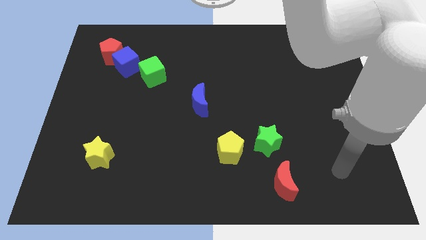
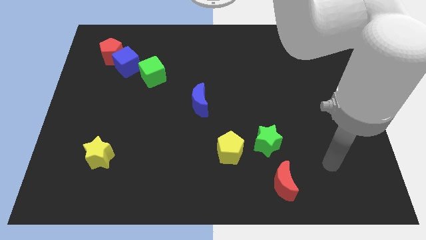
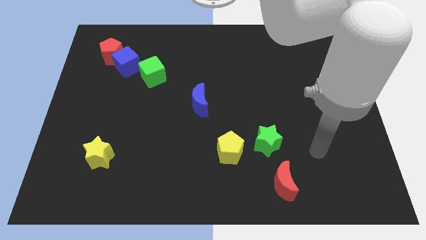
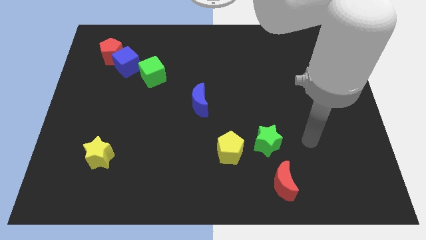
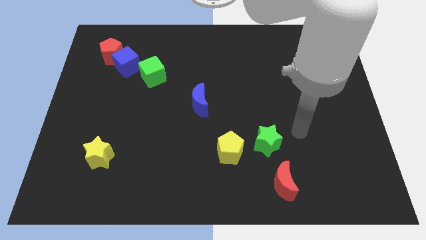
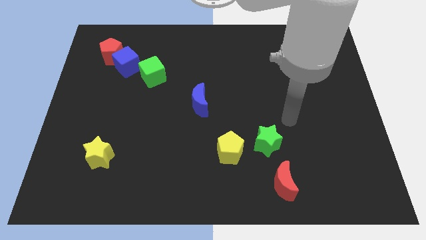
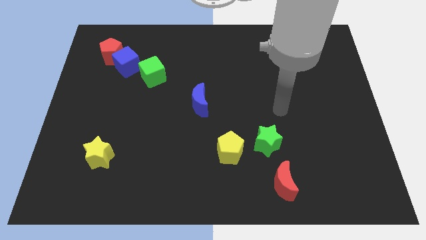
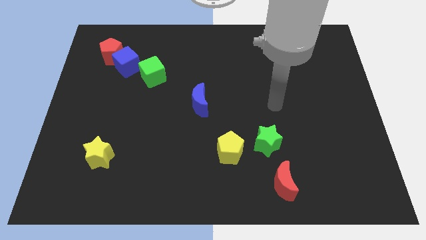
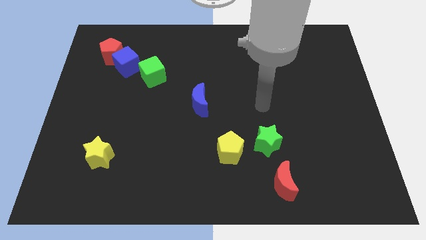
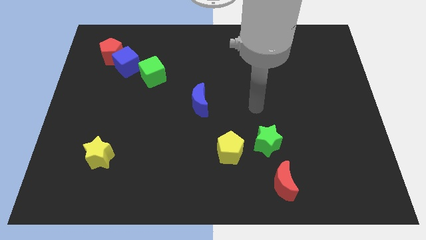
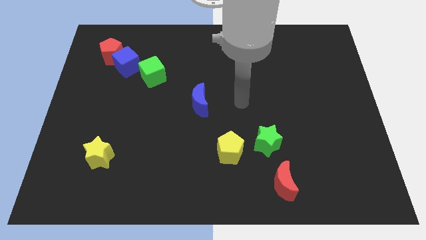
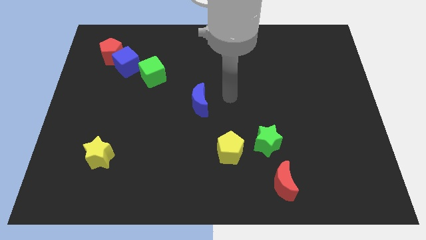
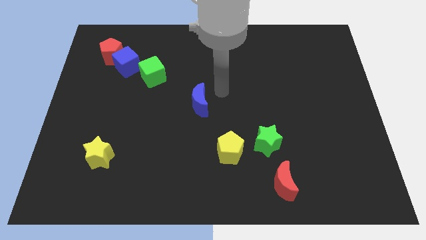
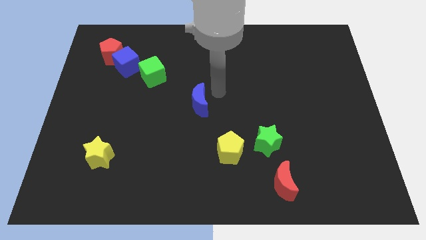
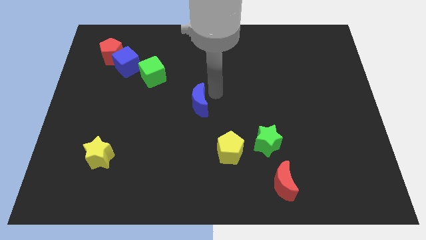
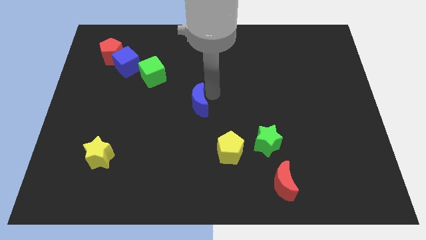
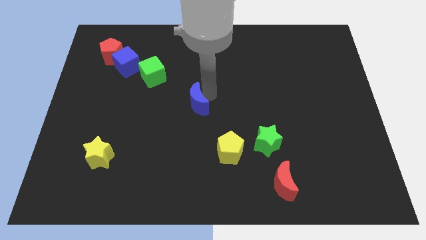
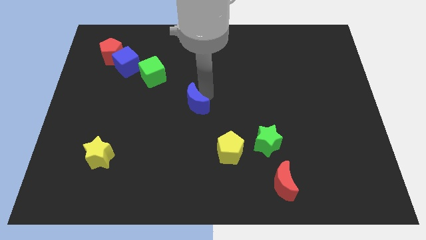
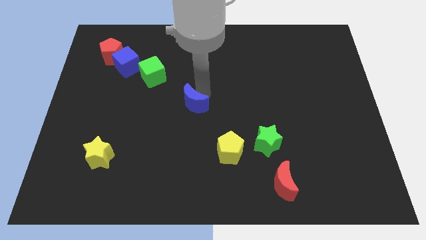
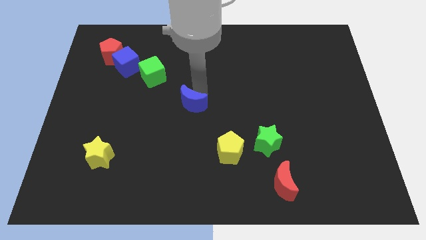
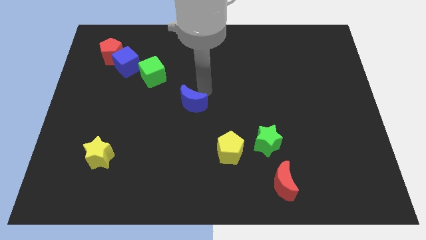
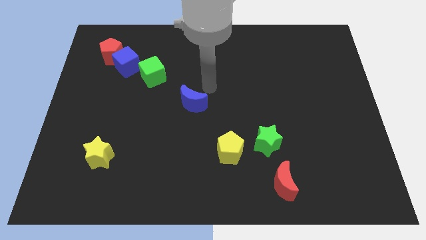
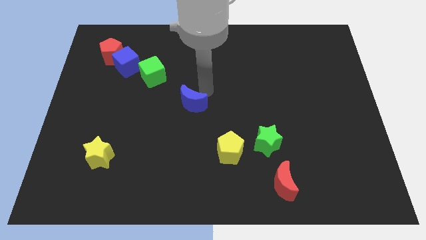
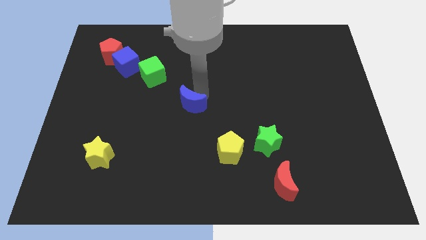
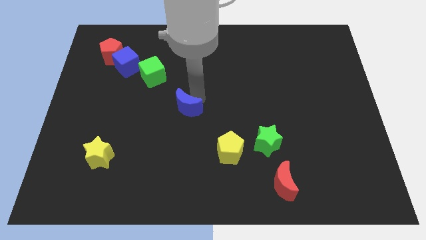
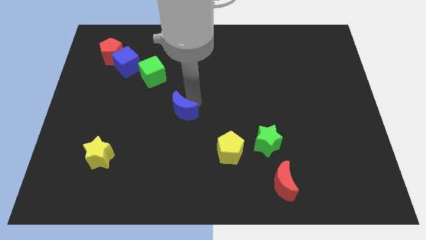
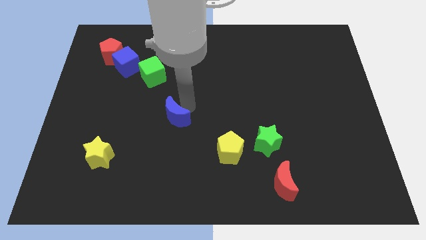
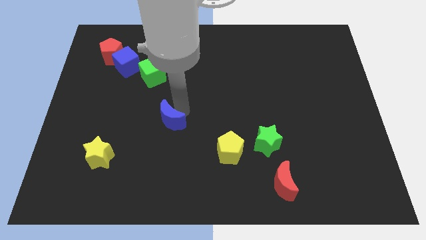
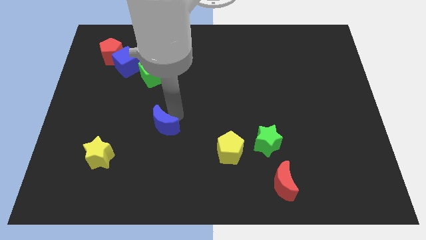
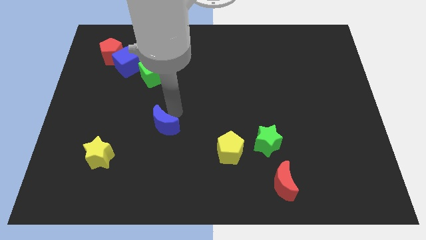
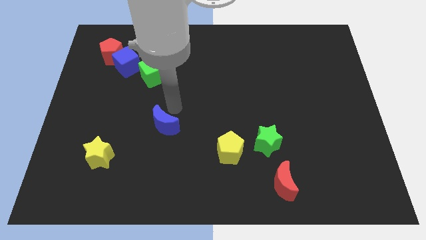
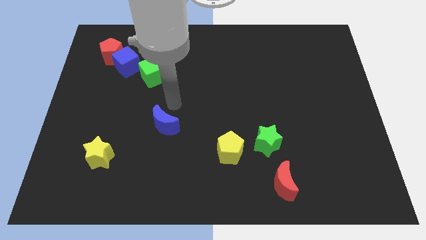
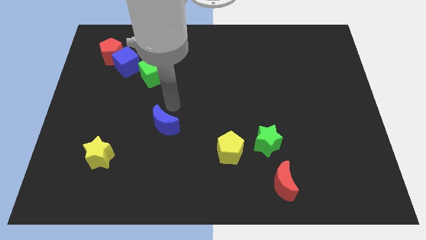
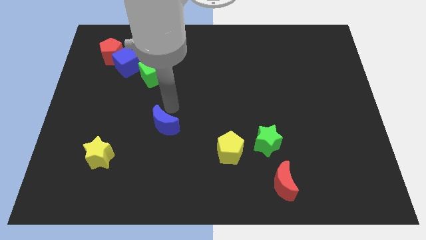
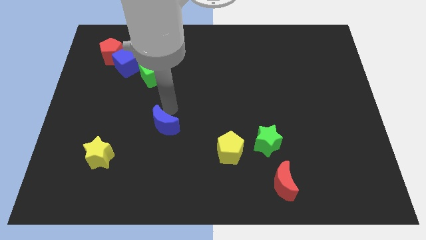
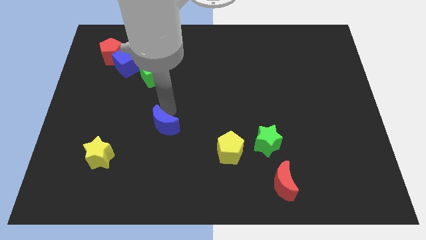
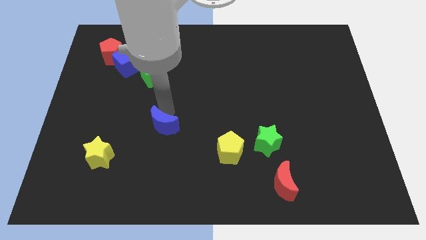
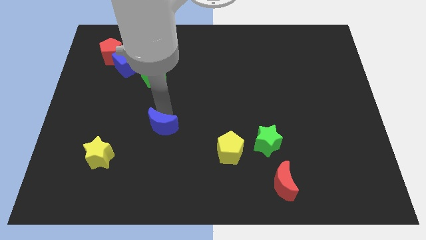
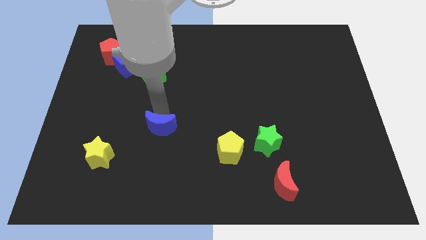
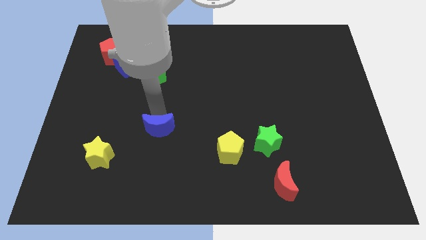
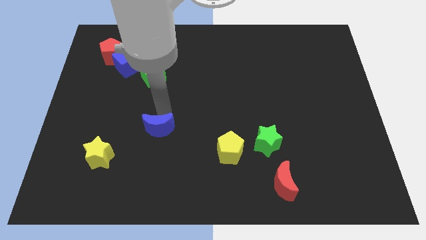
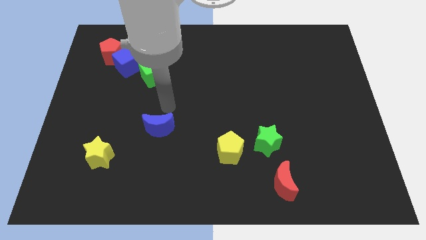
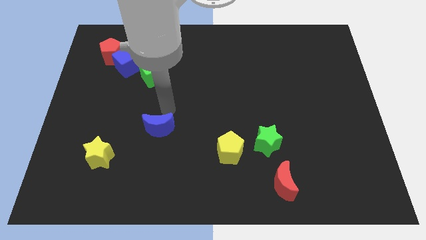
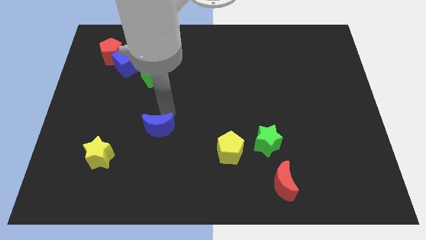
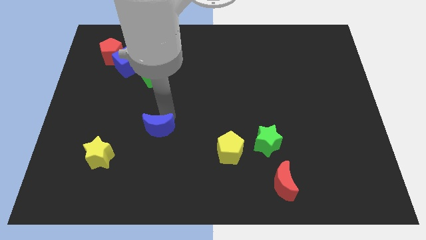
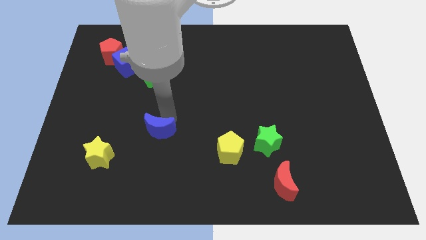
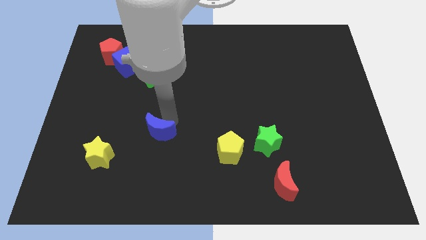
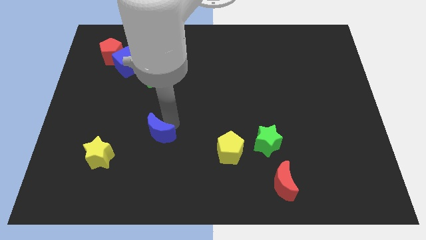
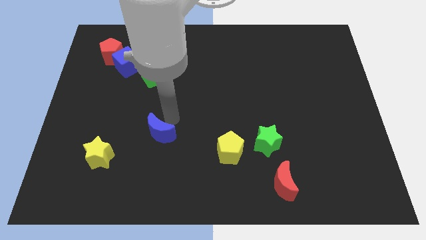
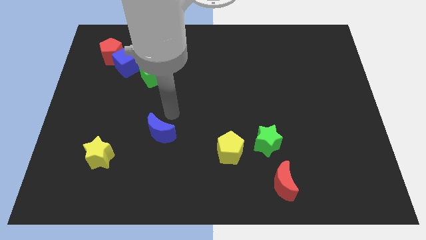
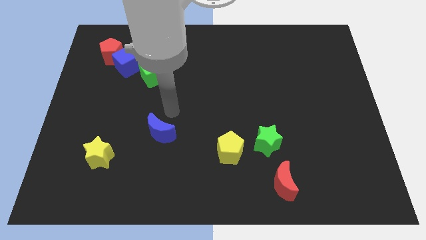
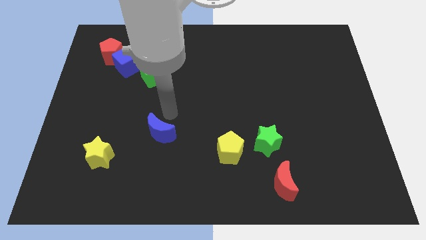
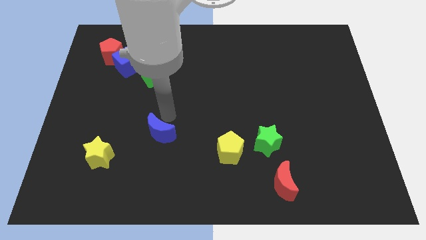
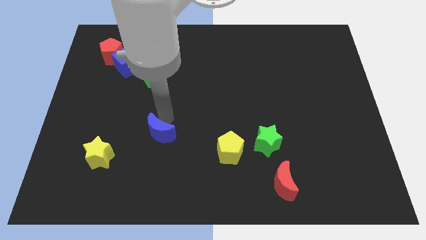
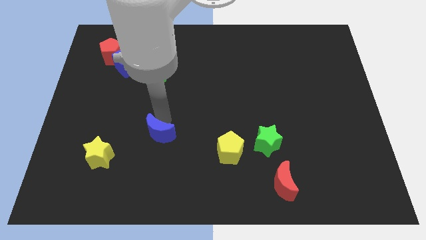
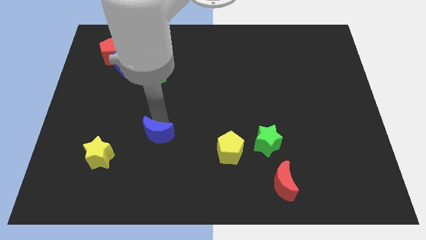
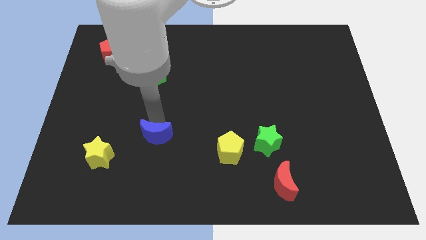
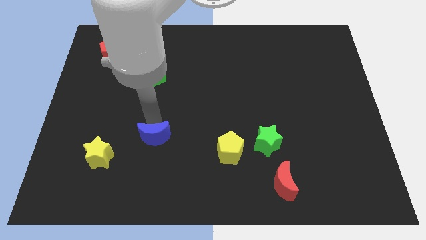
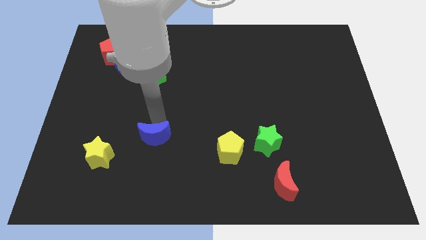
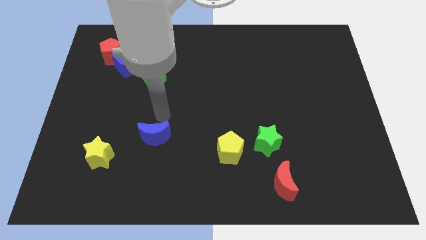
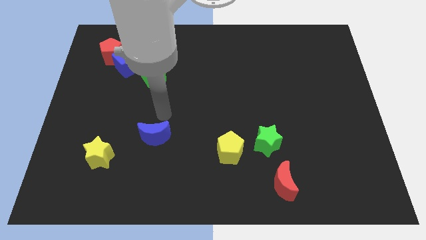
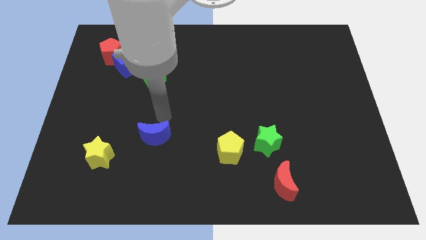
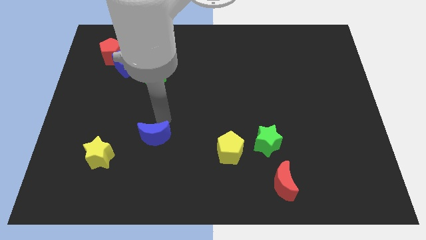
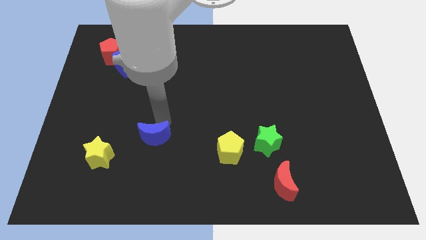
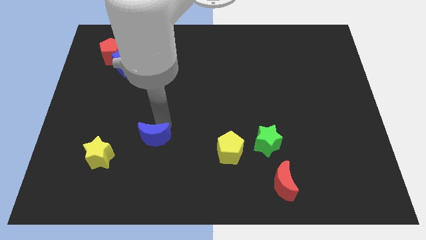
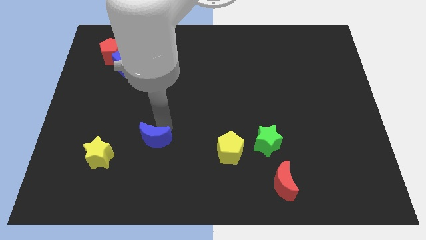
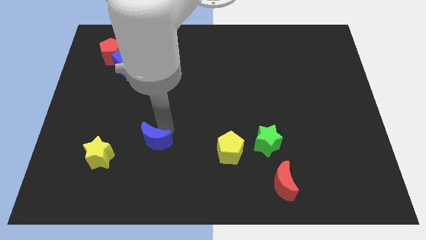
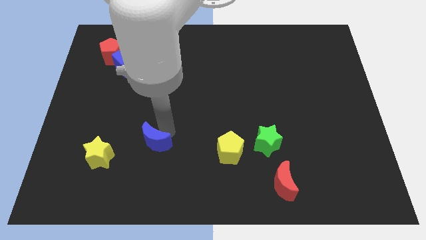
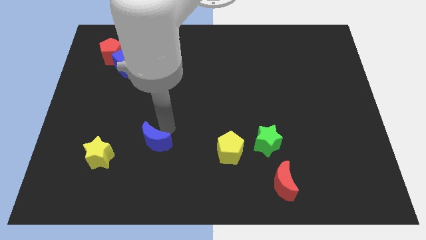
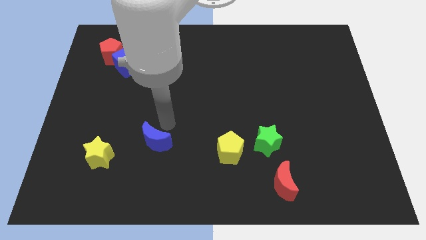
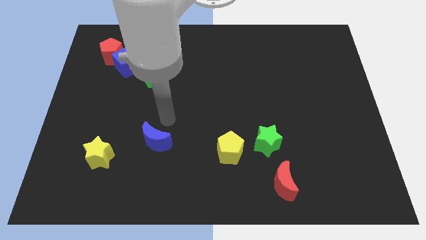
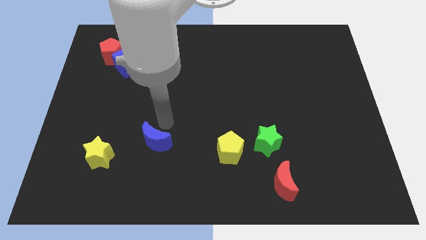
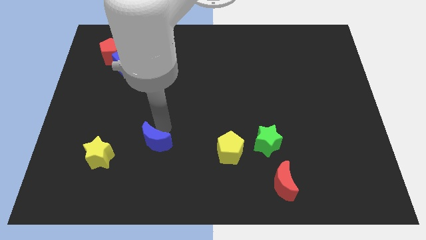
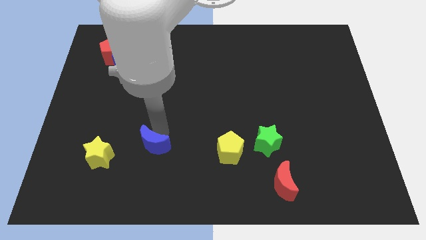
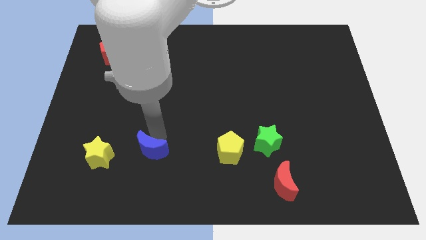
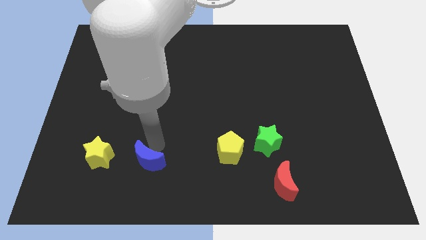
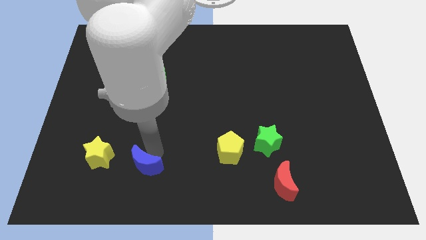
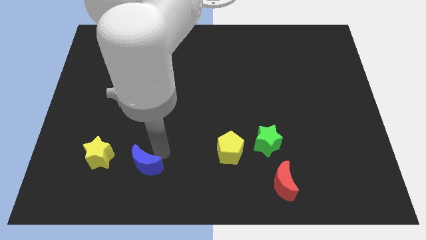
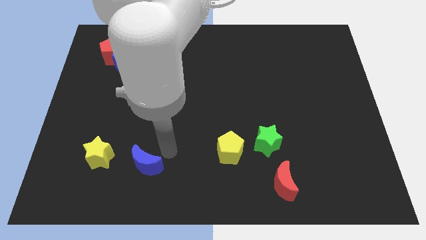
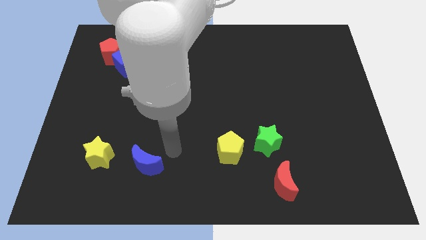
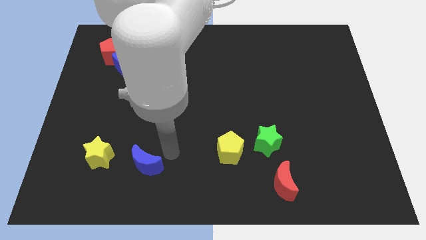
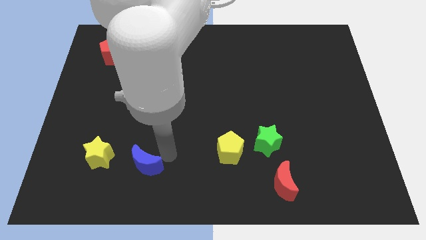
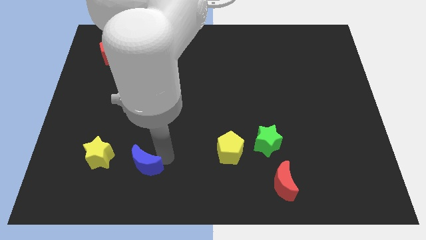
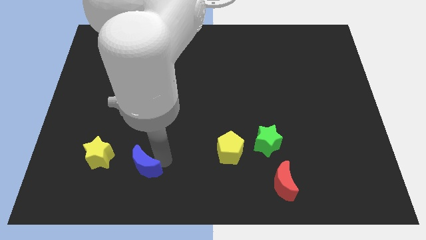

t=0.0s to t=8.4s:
move the blue moon to the bottom right side of the yellow star
